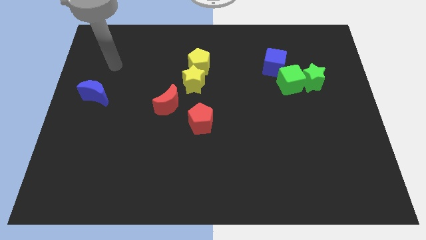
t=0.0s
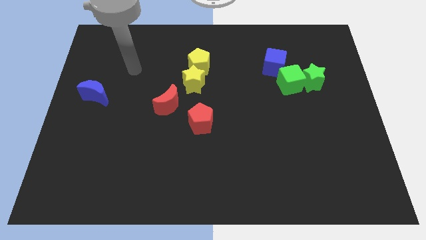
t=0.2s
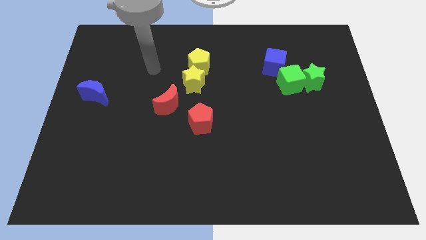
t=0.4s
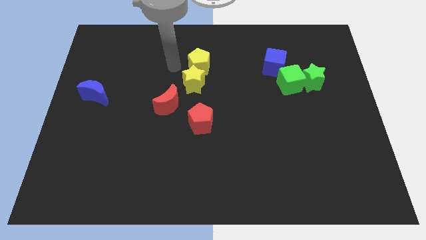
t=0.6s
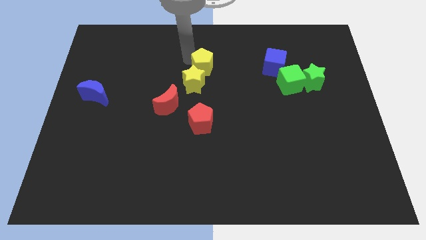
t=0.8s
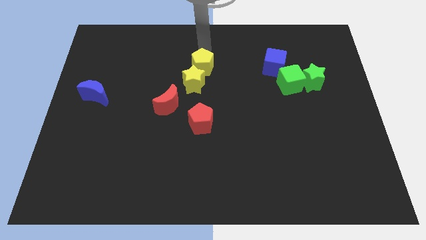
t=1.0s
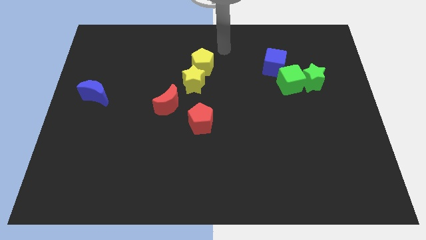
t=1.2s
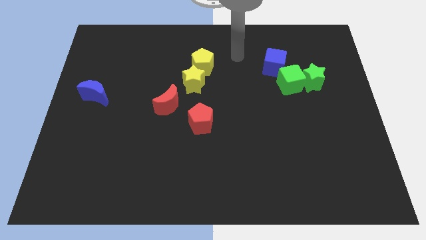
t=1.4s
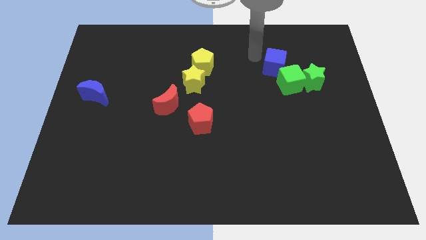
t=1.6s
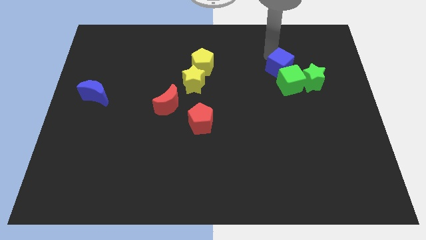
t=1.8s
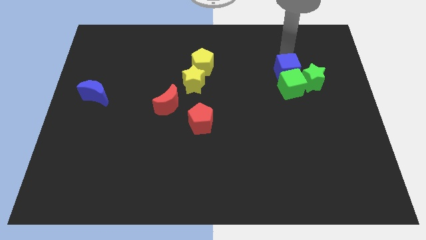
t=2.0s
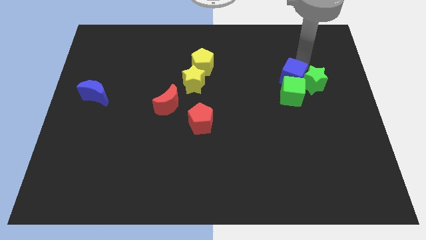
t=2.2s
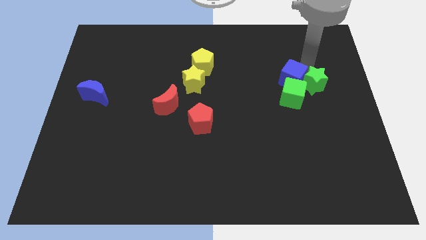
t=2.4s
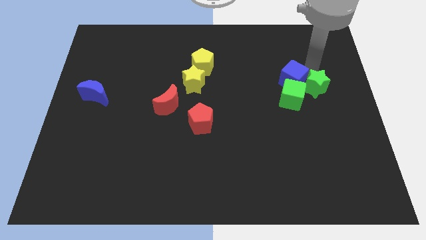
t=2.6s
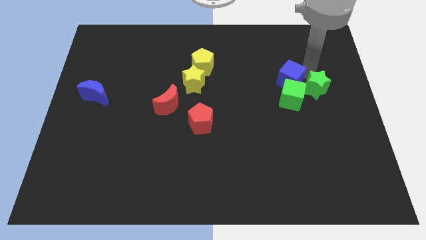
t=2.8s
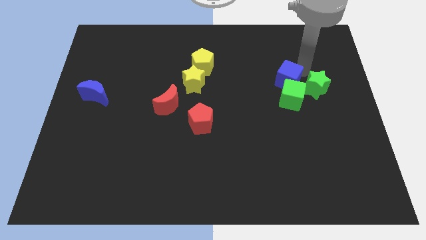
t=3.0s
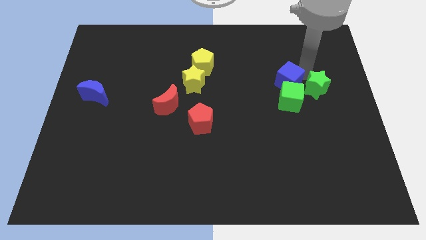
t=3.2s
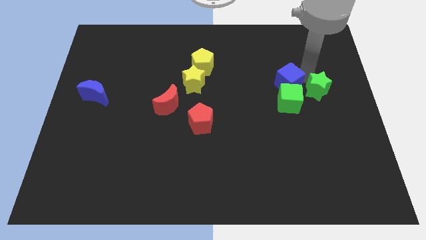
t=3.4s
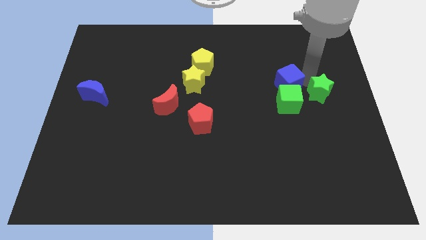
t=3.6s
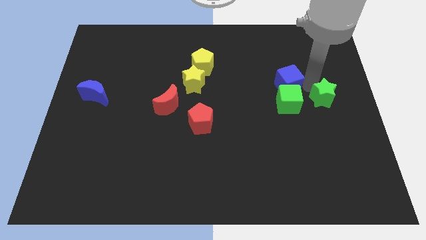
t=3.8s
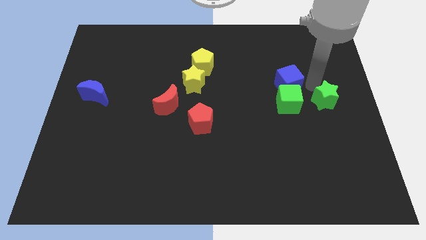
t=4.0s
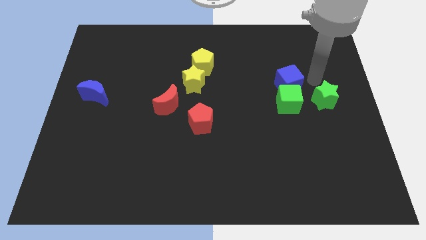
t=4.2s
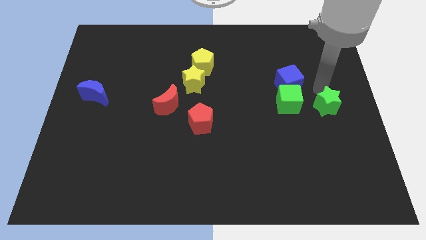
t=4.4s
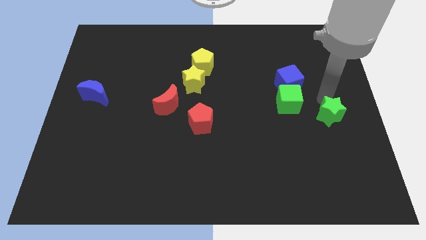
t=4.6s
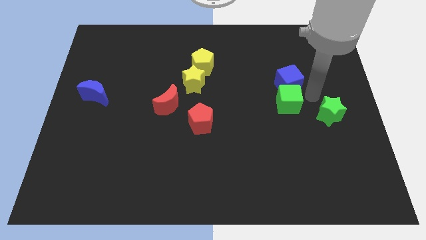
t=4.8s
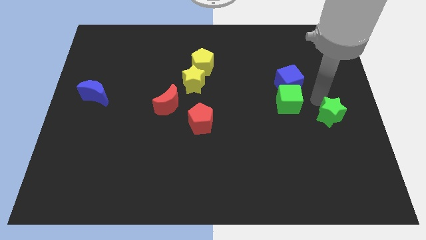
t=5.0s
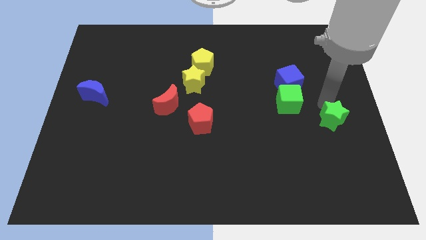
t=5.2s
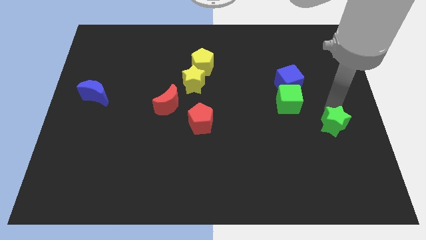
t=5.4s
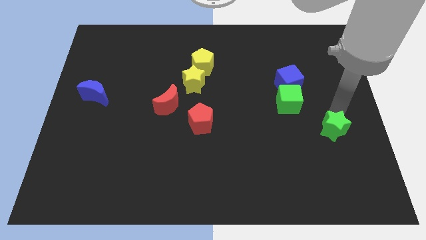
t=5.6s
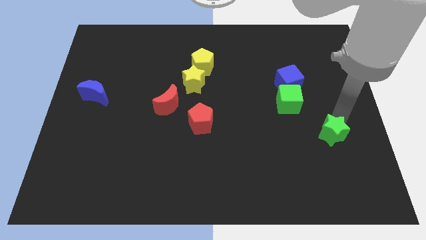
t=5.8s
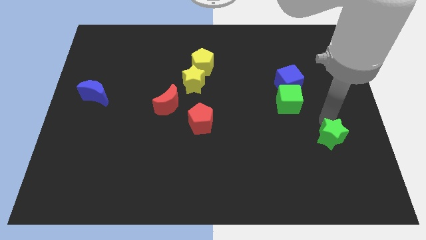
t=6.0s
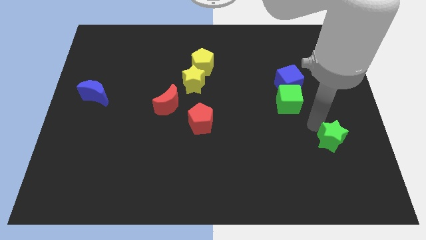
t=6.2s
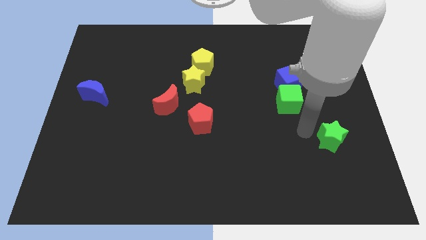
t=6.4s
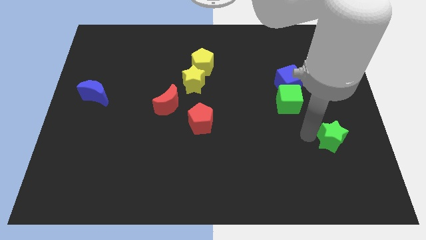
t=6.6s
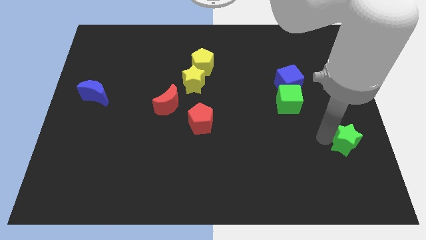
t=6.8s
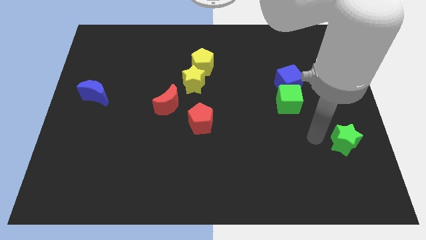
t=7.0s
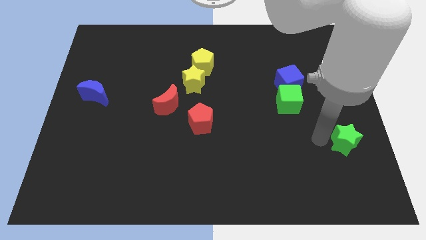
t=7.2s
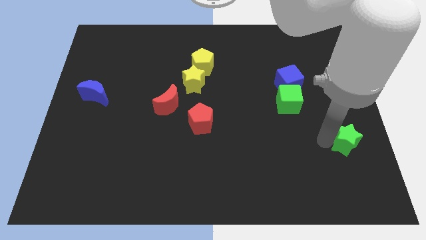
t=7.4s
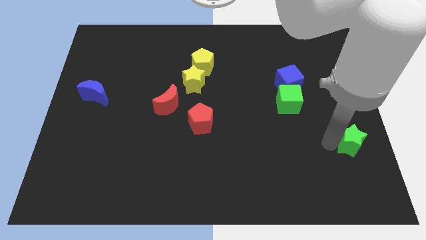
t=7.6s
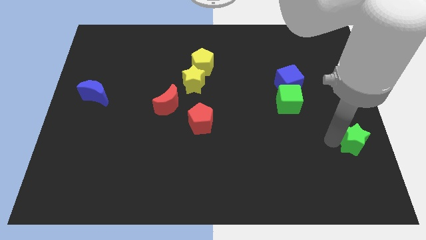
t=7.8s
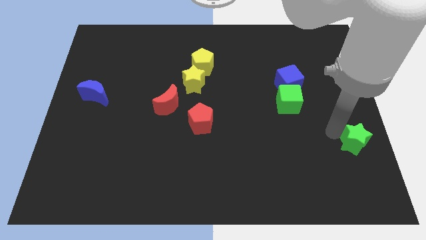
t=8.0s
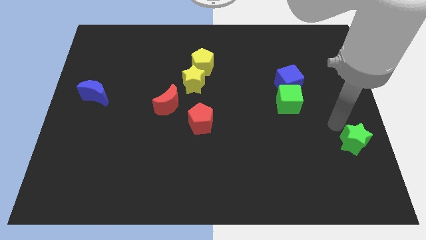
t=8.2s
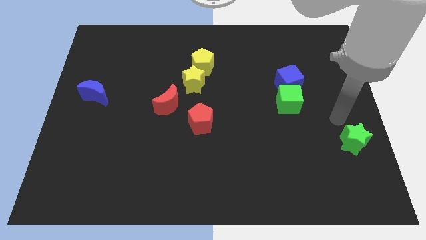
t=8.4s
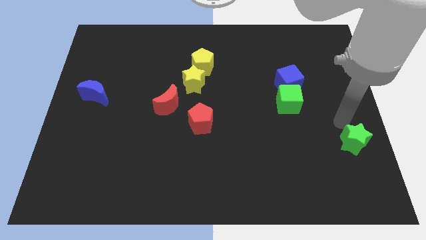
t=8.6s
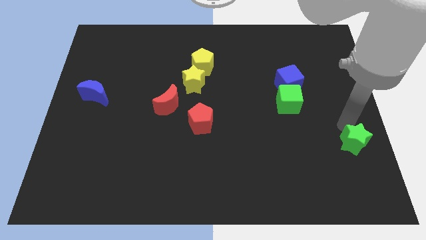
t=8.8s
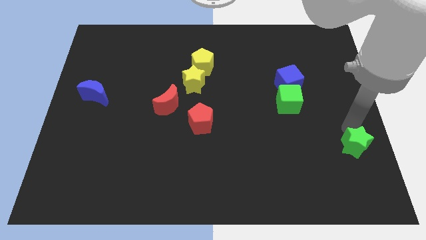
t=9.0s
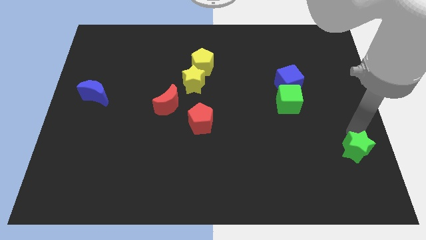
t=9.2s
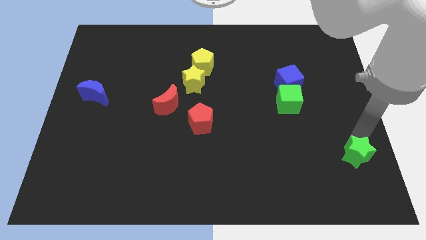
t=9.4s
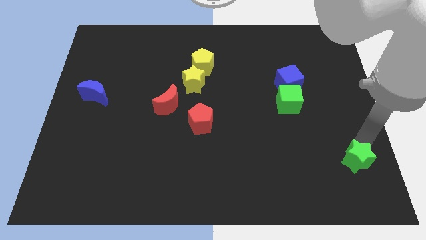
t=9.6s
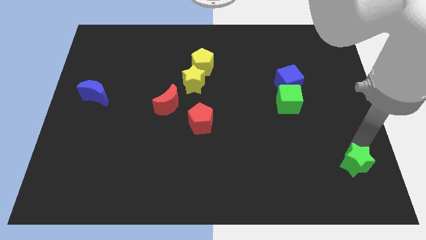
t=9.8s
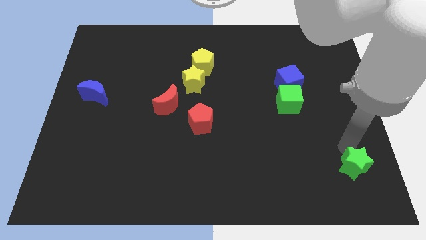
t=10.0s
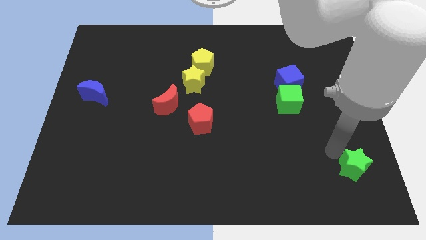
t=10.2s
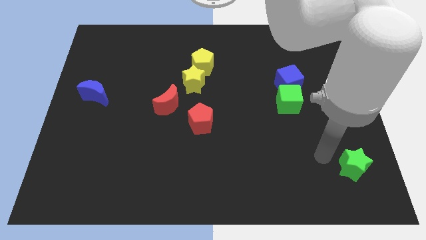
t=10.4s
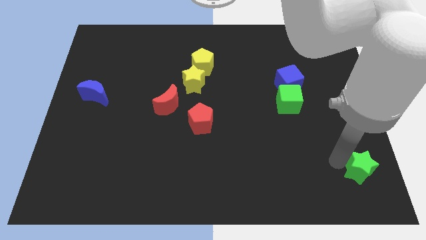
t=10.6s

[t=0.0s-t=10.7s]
put the green star to the bottom right corner

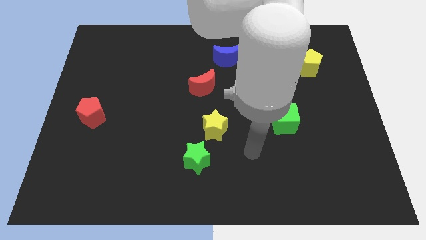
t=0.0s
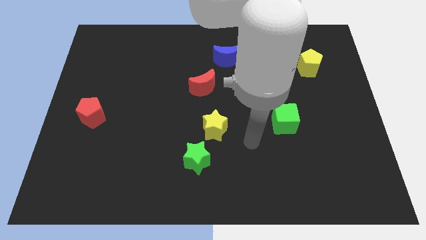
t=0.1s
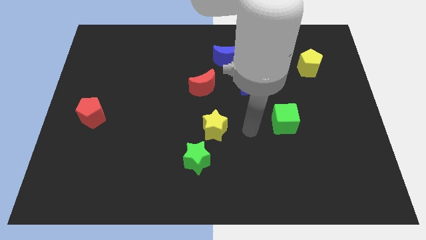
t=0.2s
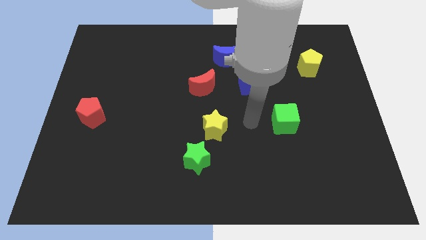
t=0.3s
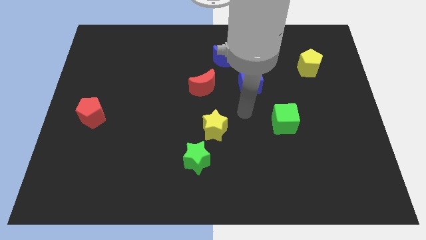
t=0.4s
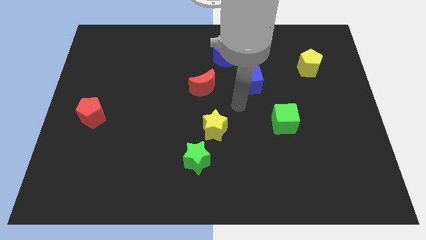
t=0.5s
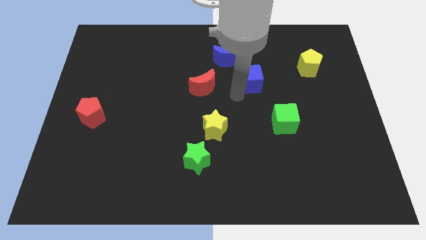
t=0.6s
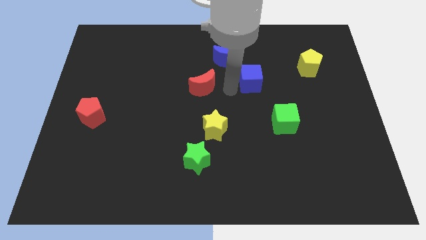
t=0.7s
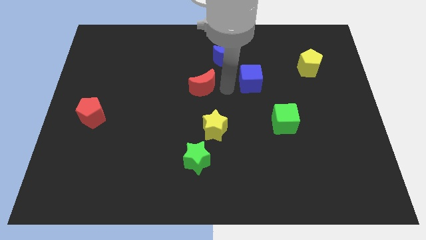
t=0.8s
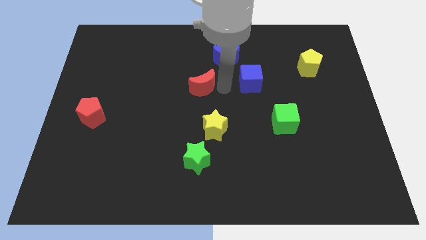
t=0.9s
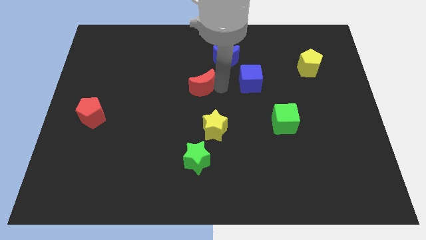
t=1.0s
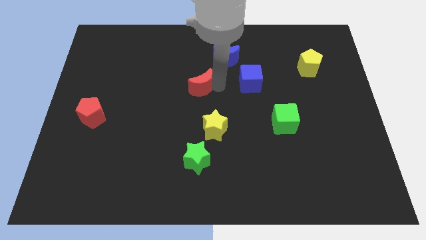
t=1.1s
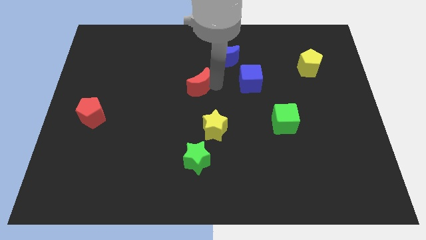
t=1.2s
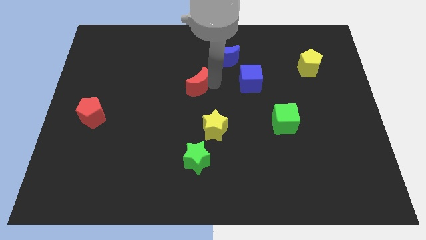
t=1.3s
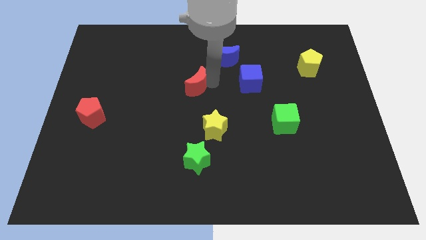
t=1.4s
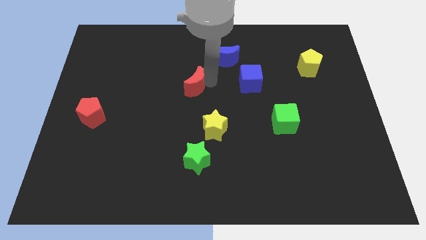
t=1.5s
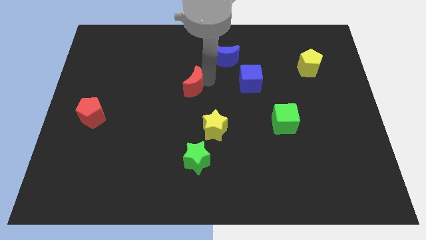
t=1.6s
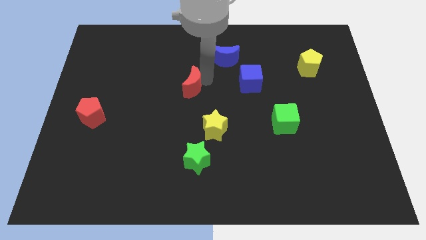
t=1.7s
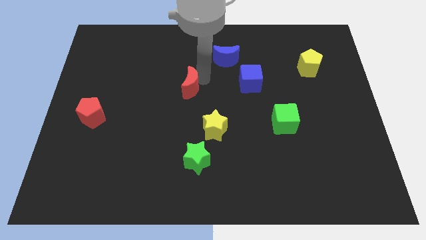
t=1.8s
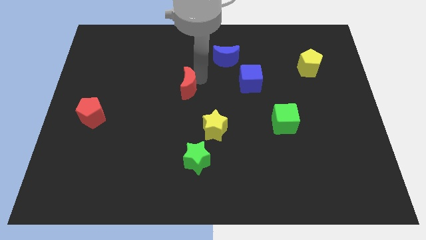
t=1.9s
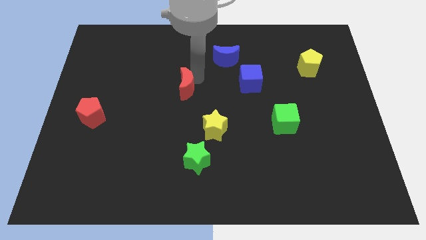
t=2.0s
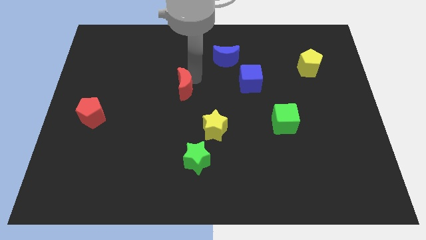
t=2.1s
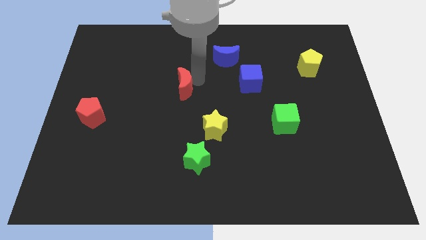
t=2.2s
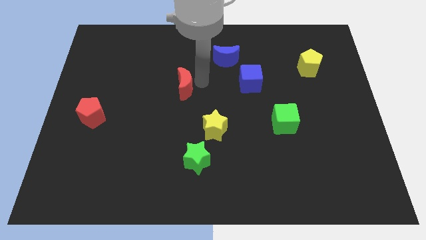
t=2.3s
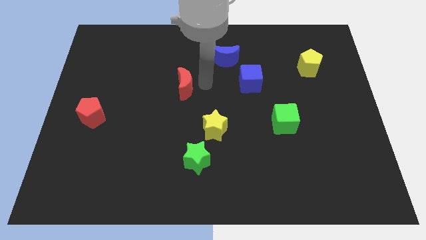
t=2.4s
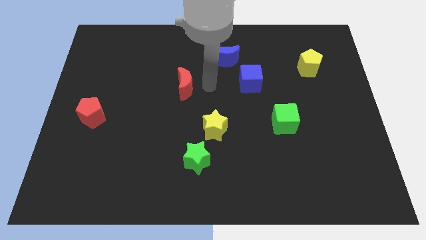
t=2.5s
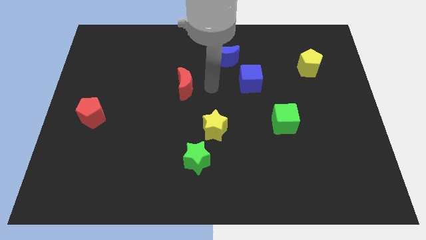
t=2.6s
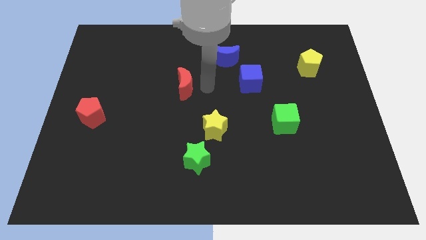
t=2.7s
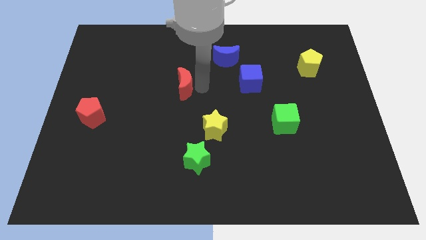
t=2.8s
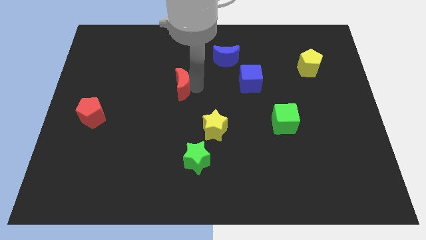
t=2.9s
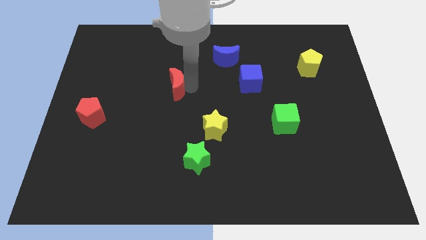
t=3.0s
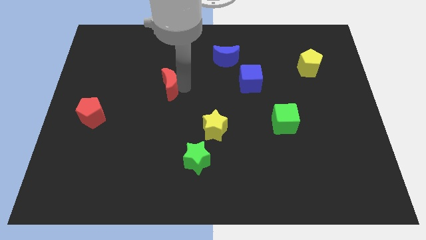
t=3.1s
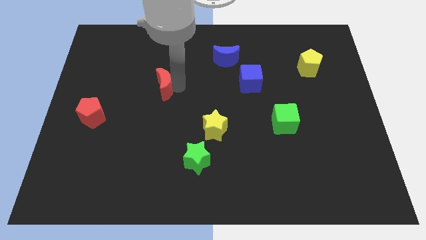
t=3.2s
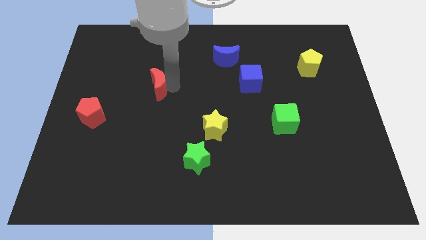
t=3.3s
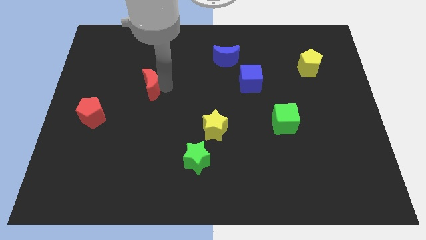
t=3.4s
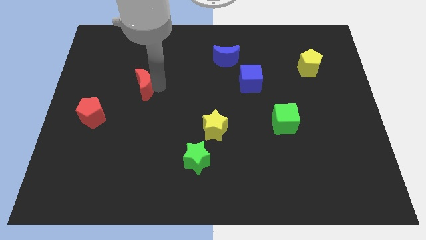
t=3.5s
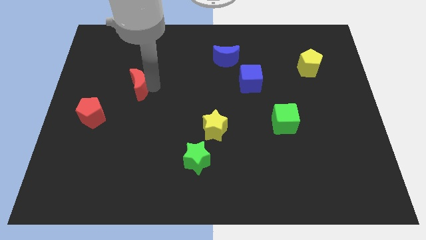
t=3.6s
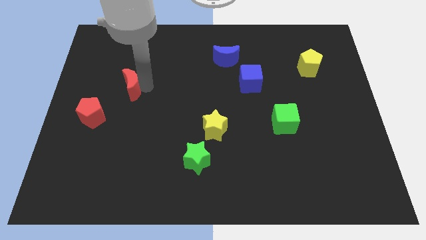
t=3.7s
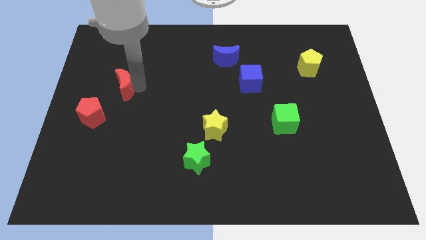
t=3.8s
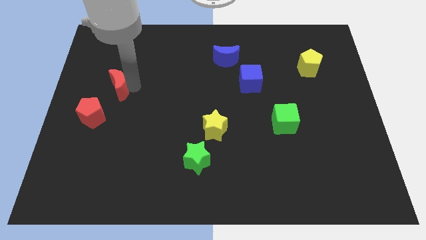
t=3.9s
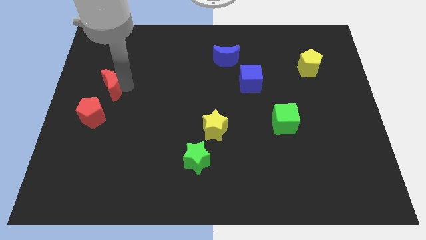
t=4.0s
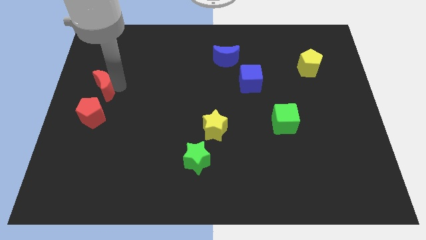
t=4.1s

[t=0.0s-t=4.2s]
move the red moon to the left side
